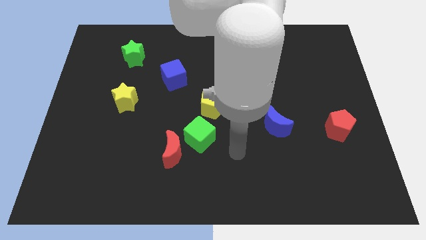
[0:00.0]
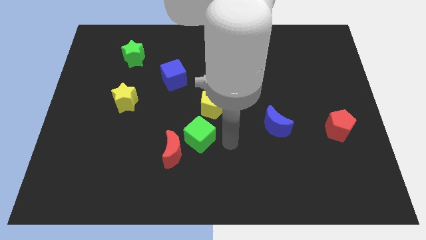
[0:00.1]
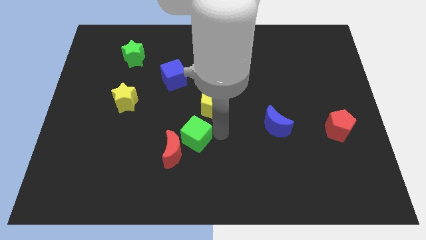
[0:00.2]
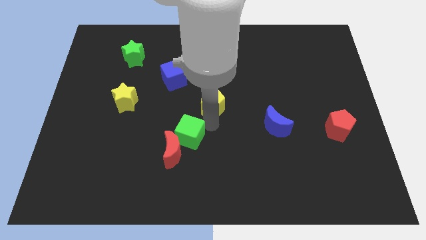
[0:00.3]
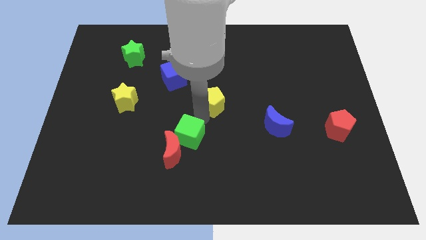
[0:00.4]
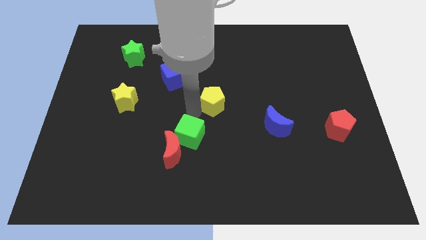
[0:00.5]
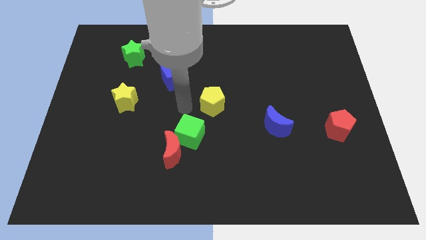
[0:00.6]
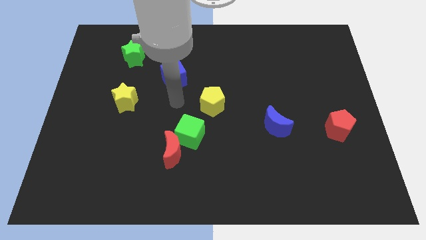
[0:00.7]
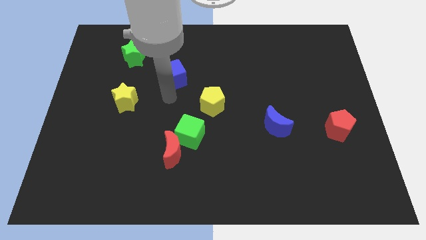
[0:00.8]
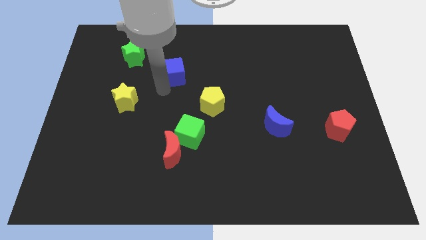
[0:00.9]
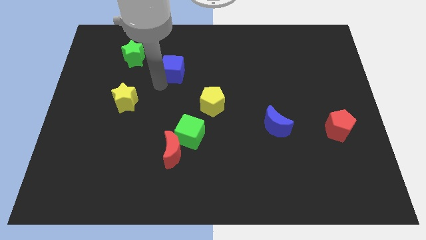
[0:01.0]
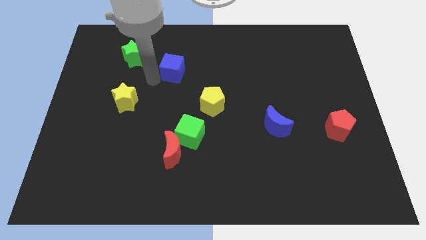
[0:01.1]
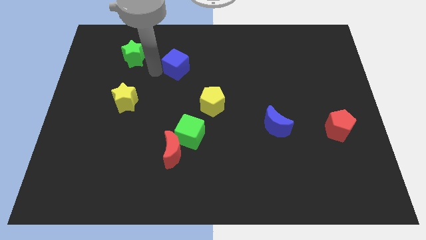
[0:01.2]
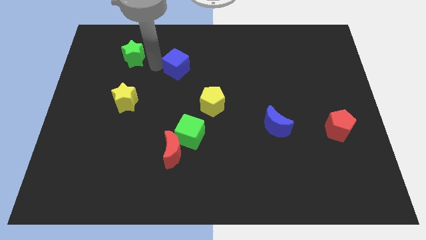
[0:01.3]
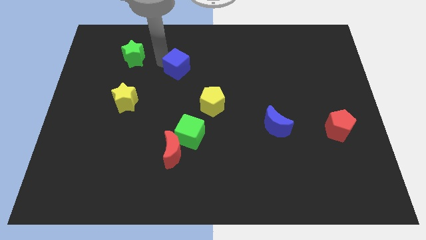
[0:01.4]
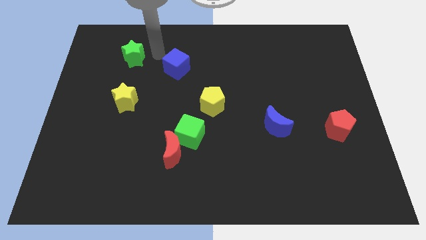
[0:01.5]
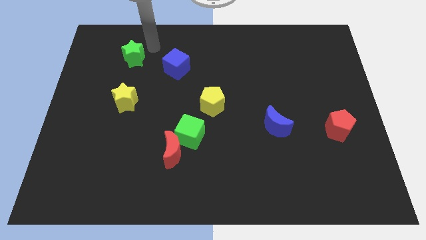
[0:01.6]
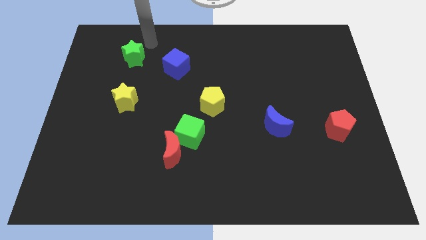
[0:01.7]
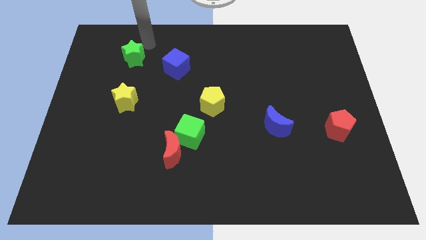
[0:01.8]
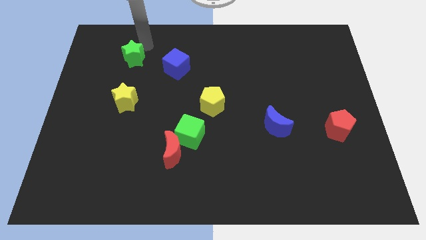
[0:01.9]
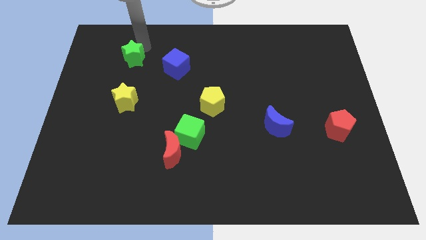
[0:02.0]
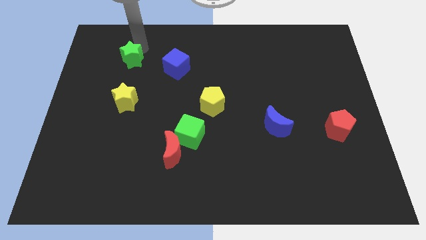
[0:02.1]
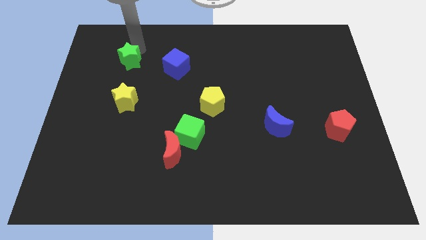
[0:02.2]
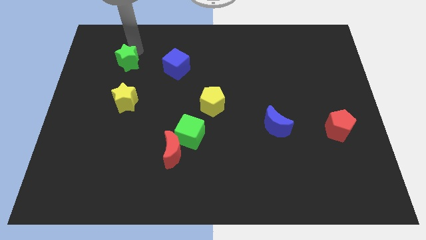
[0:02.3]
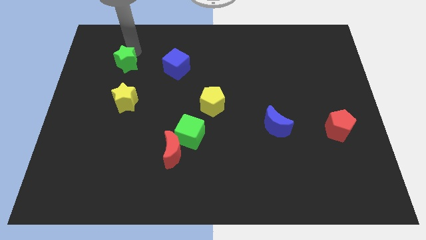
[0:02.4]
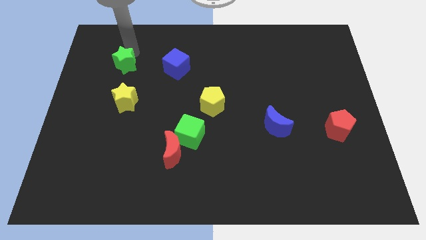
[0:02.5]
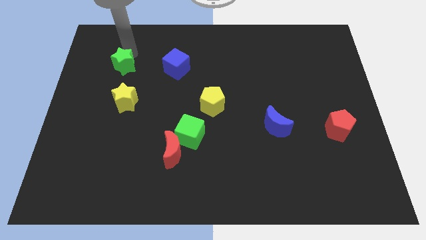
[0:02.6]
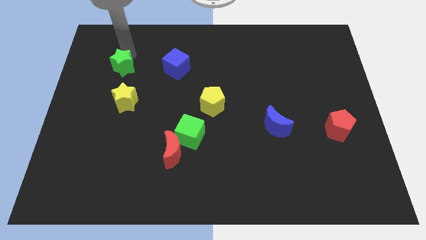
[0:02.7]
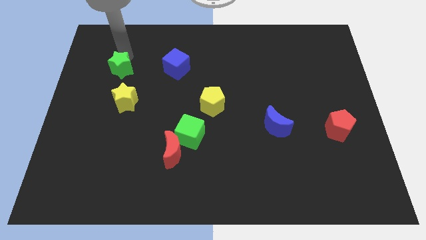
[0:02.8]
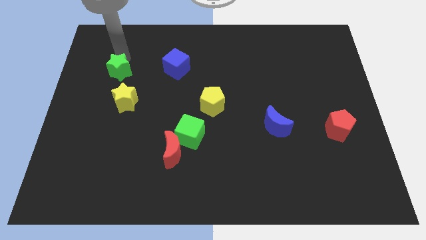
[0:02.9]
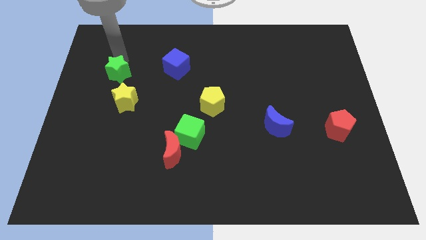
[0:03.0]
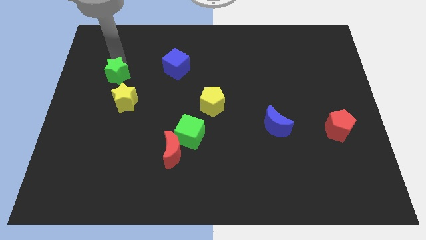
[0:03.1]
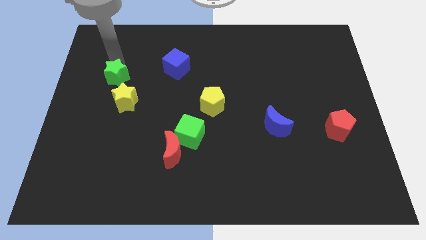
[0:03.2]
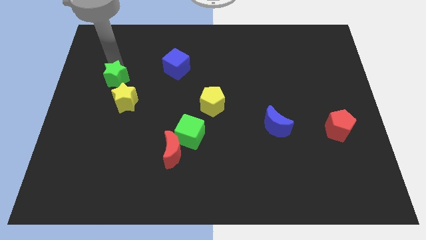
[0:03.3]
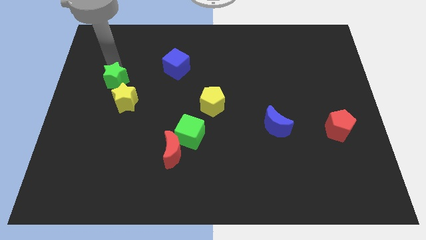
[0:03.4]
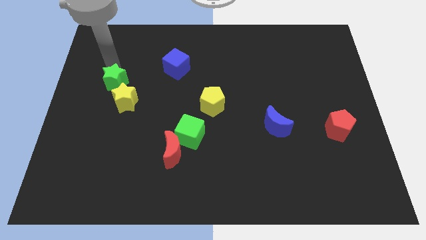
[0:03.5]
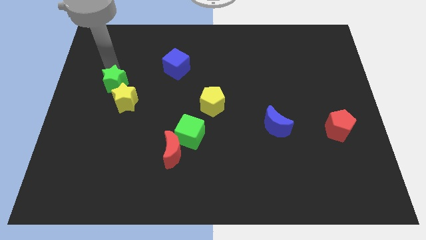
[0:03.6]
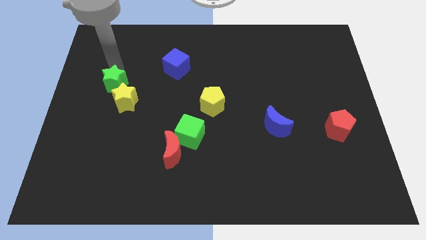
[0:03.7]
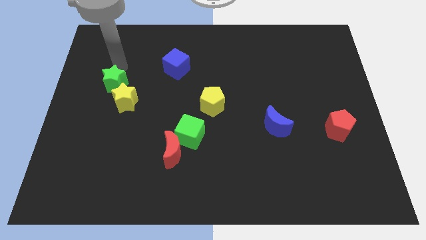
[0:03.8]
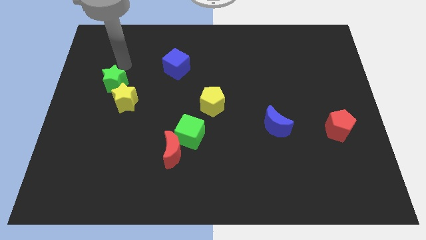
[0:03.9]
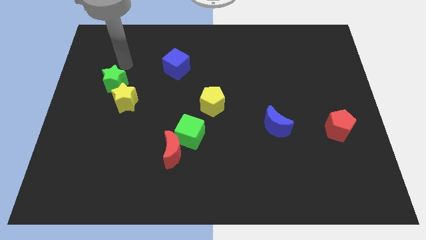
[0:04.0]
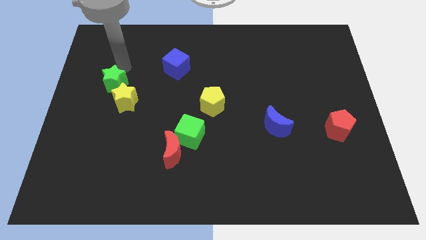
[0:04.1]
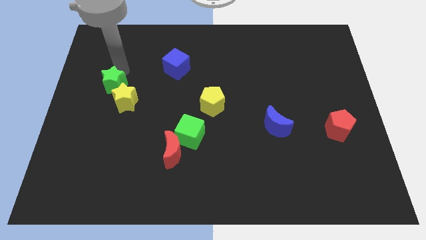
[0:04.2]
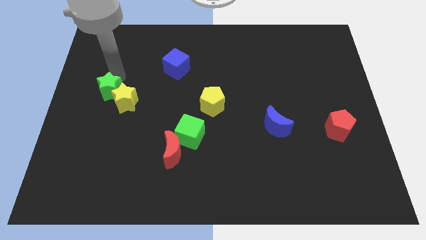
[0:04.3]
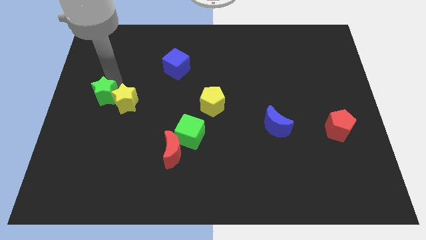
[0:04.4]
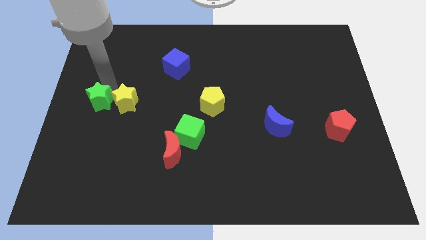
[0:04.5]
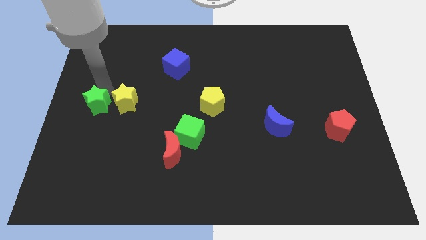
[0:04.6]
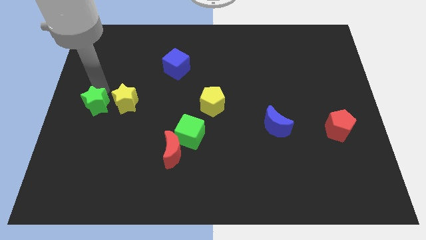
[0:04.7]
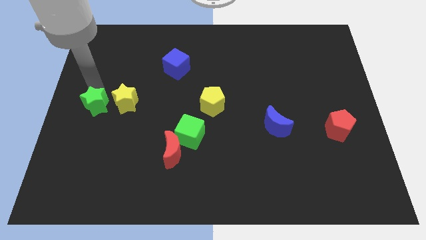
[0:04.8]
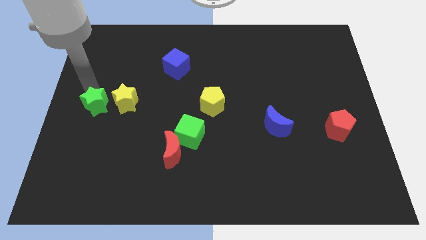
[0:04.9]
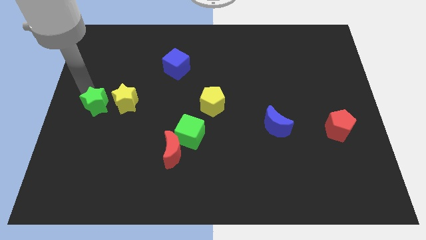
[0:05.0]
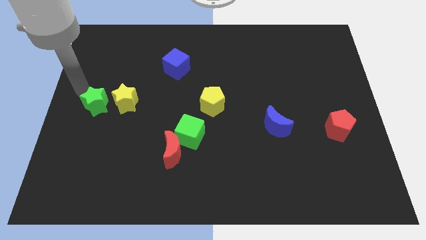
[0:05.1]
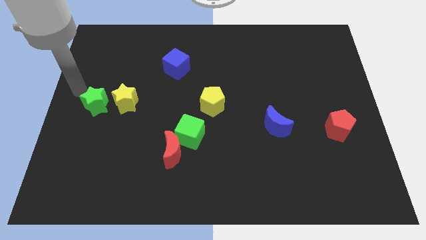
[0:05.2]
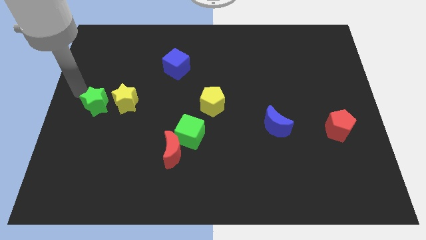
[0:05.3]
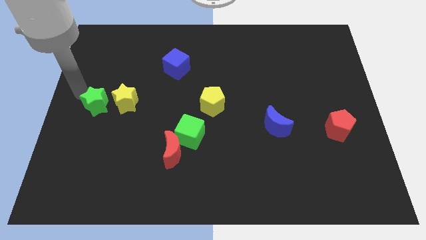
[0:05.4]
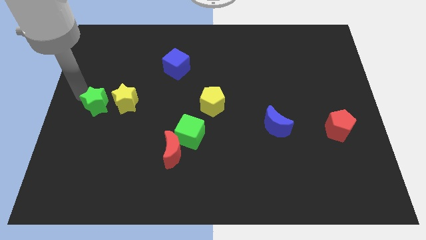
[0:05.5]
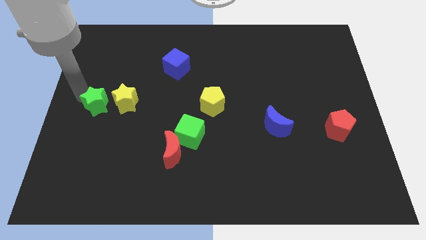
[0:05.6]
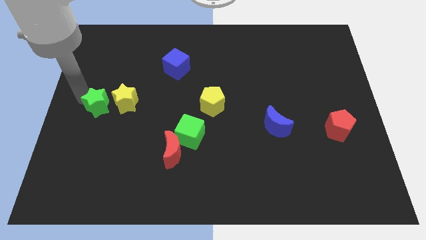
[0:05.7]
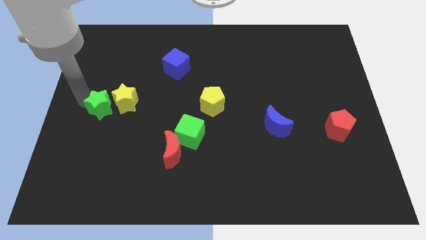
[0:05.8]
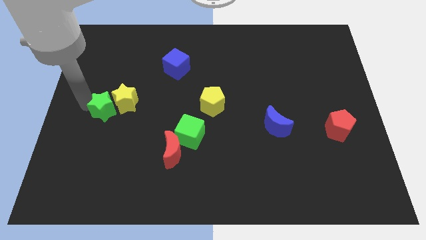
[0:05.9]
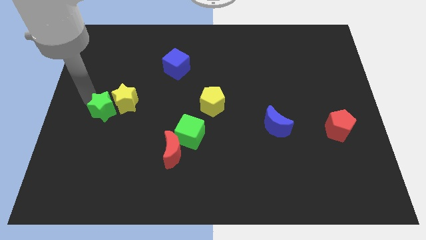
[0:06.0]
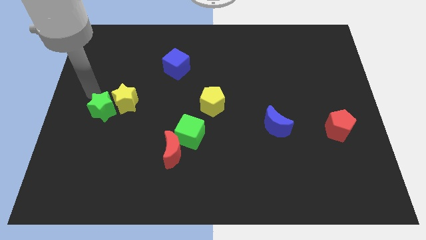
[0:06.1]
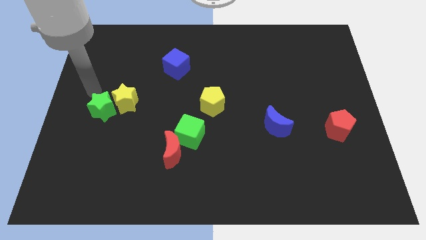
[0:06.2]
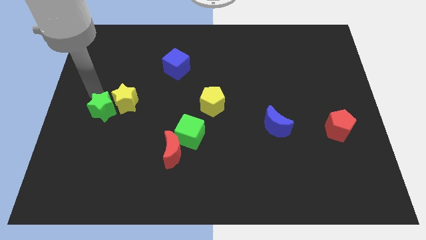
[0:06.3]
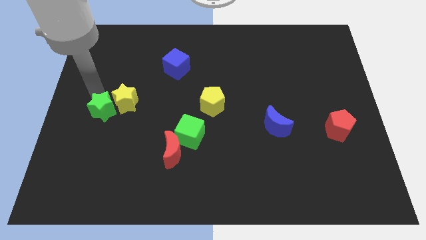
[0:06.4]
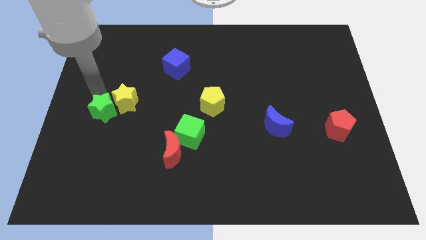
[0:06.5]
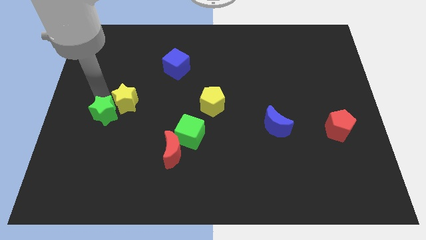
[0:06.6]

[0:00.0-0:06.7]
push the green star below the yellow star
